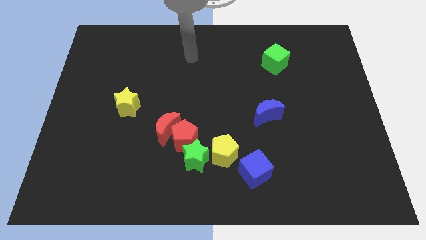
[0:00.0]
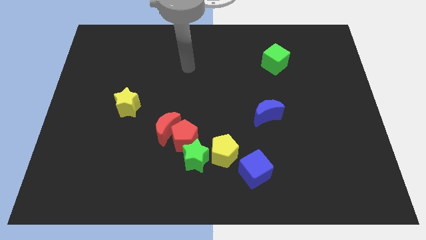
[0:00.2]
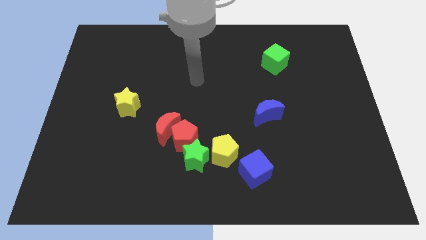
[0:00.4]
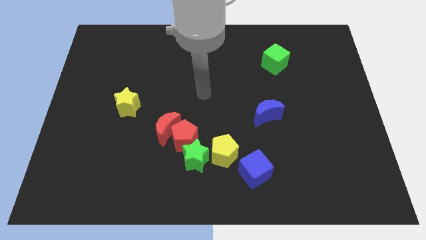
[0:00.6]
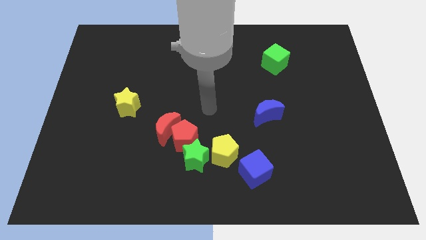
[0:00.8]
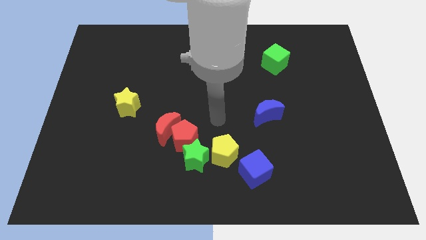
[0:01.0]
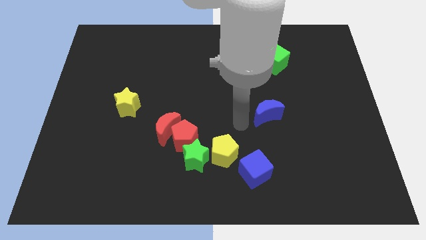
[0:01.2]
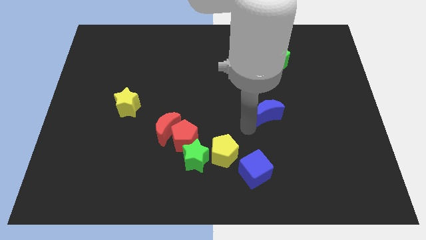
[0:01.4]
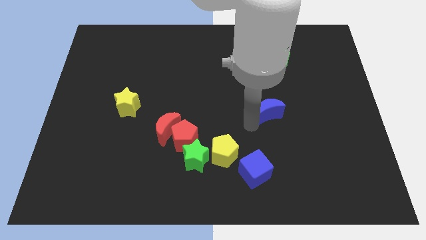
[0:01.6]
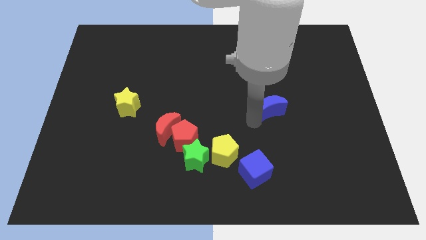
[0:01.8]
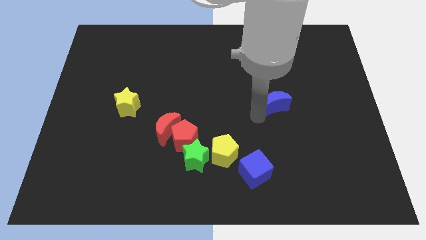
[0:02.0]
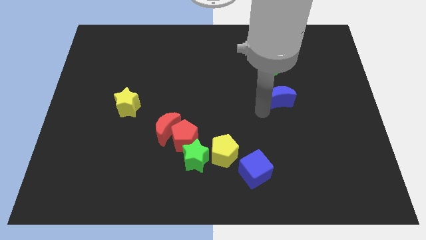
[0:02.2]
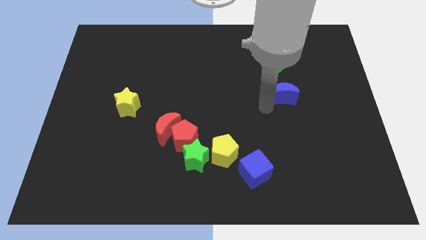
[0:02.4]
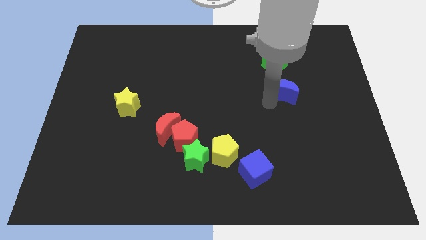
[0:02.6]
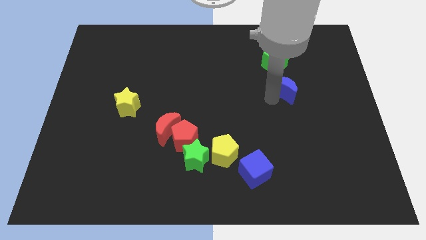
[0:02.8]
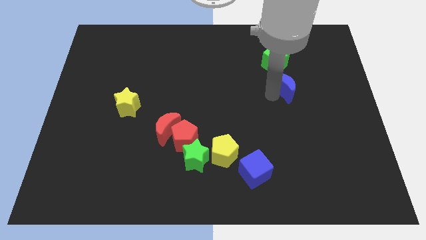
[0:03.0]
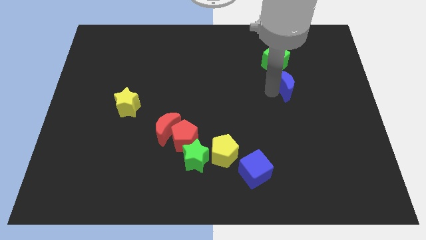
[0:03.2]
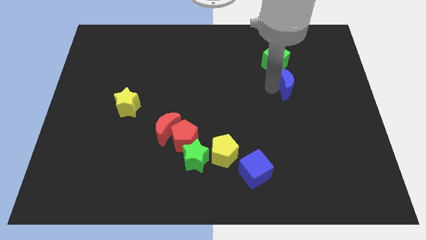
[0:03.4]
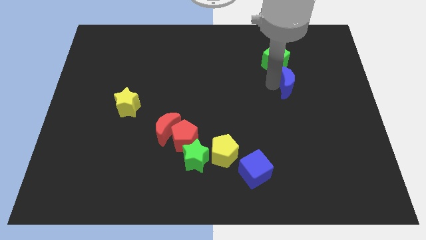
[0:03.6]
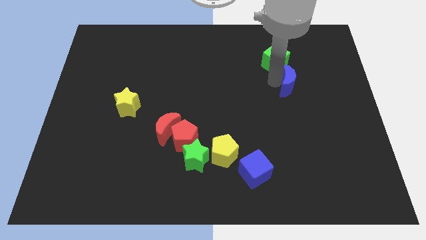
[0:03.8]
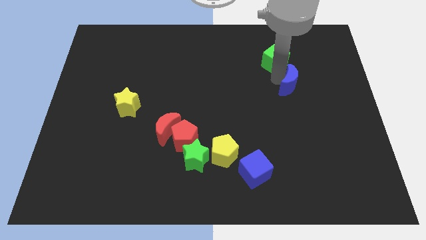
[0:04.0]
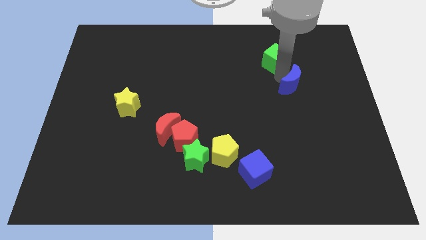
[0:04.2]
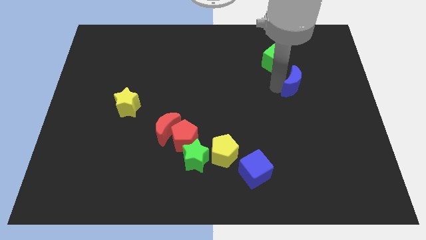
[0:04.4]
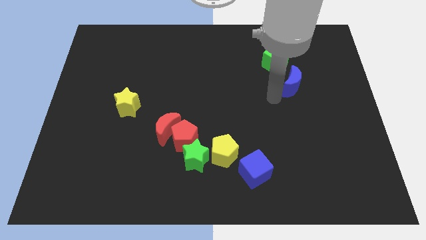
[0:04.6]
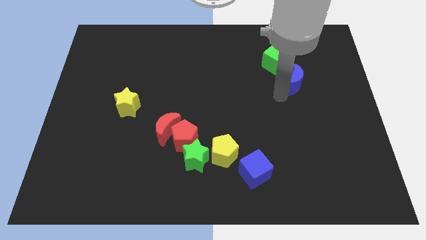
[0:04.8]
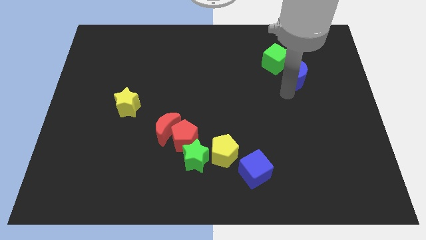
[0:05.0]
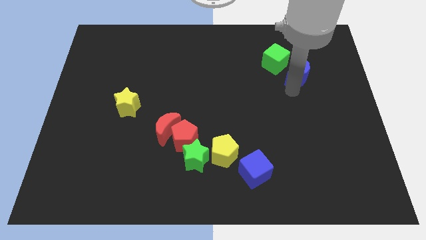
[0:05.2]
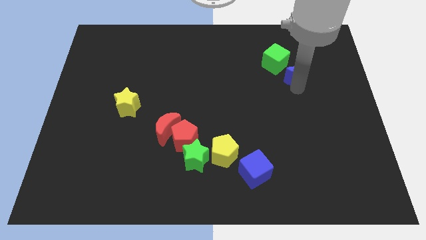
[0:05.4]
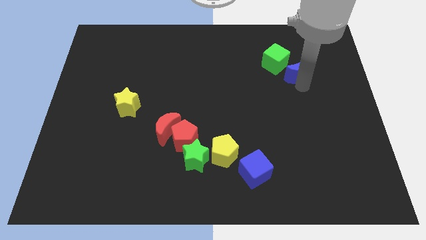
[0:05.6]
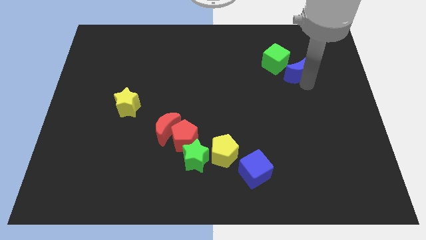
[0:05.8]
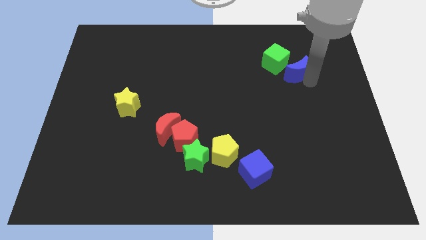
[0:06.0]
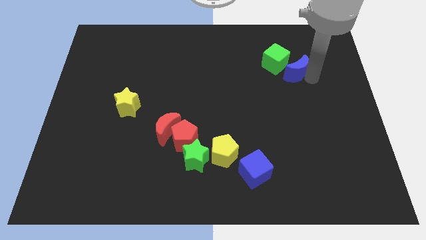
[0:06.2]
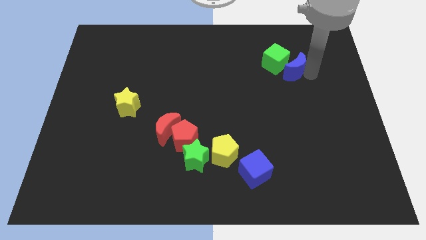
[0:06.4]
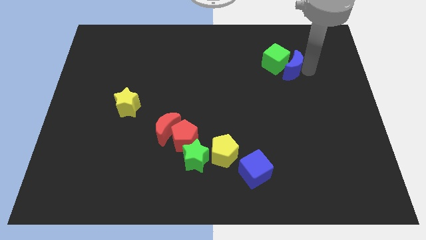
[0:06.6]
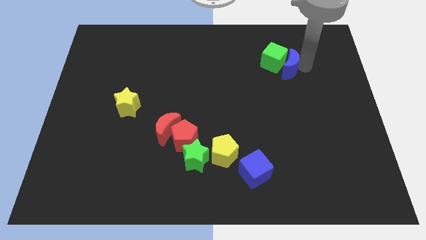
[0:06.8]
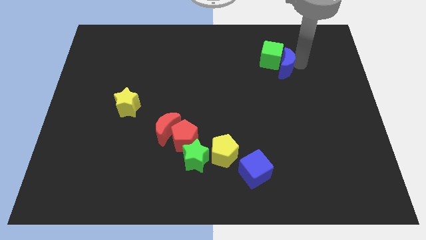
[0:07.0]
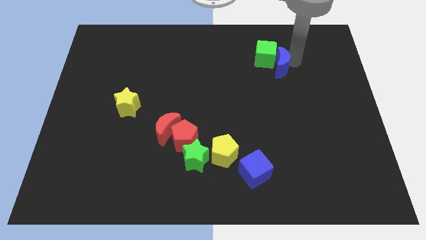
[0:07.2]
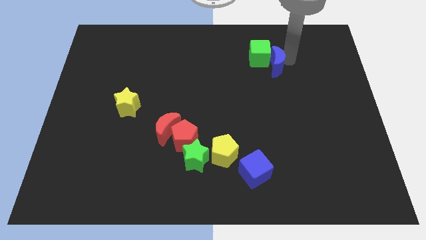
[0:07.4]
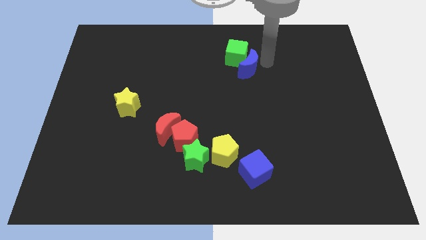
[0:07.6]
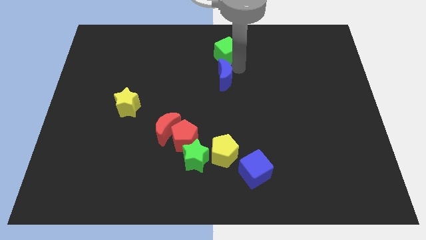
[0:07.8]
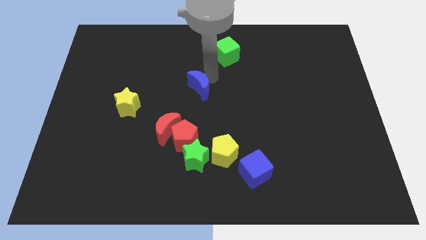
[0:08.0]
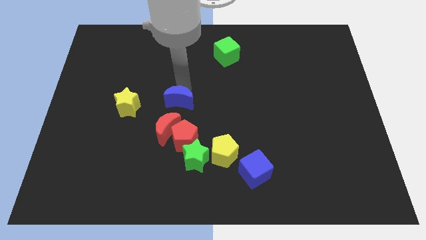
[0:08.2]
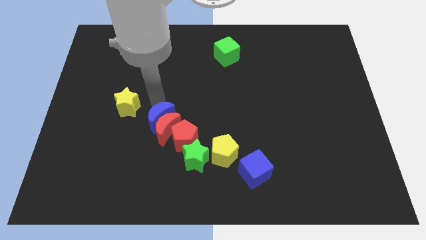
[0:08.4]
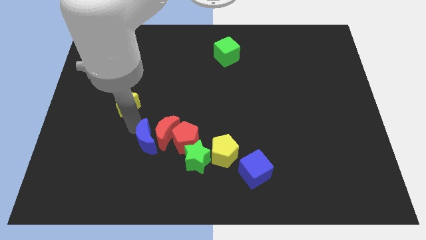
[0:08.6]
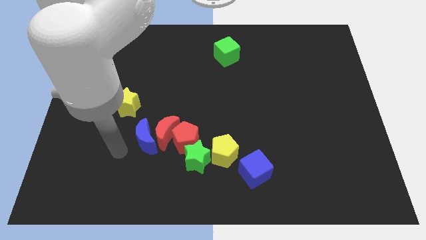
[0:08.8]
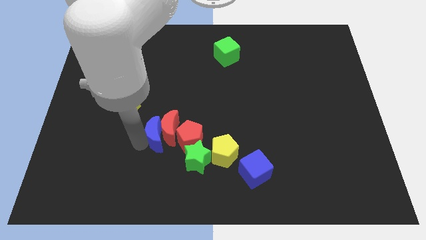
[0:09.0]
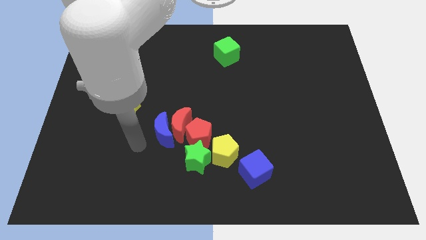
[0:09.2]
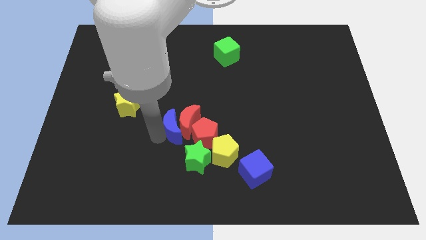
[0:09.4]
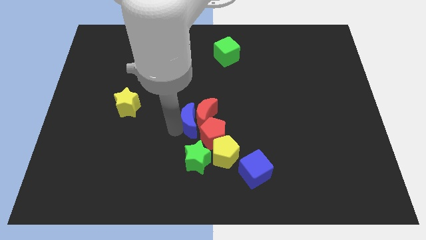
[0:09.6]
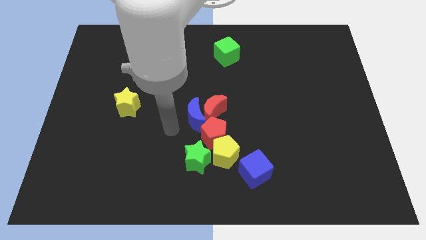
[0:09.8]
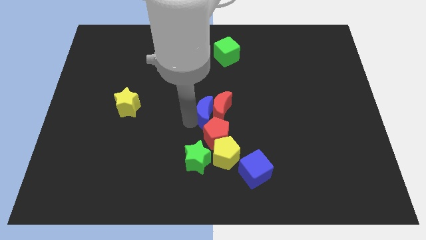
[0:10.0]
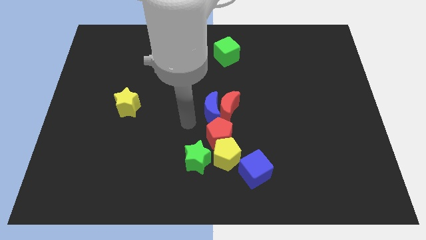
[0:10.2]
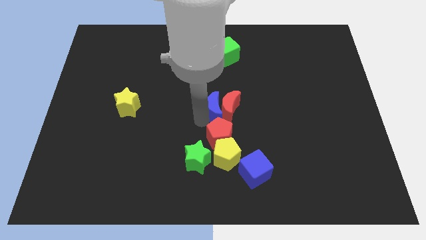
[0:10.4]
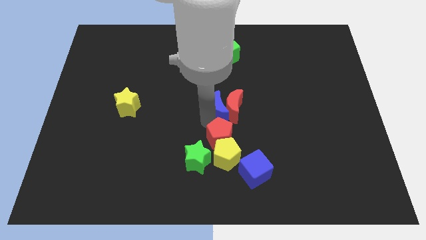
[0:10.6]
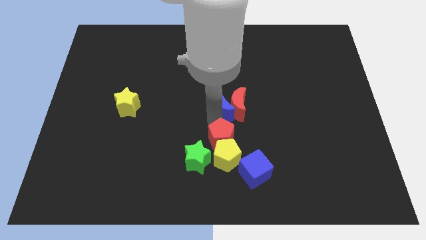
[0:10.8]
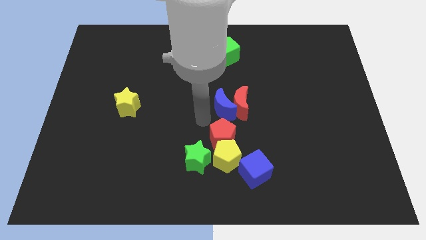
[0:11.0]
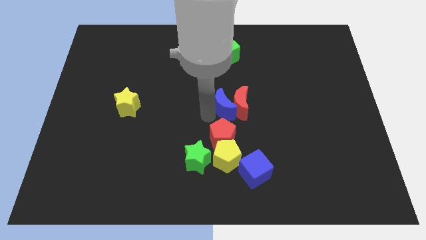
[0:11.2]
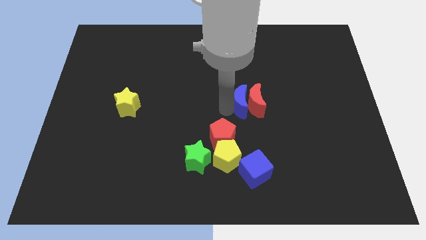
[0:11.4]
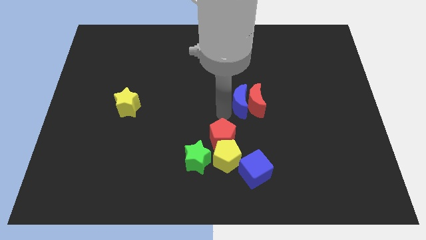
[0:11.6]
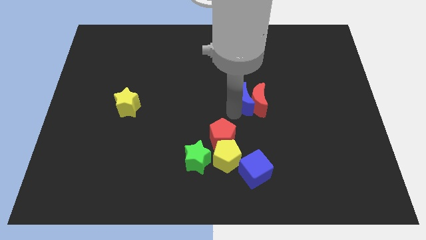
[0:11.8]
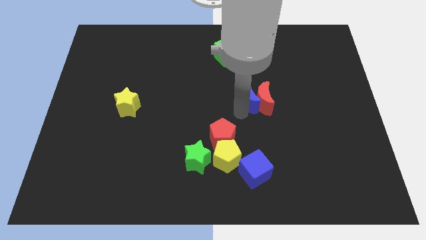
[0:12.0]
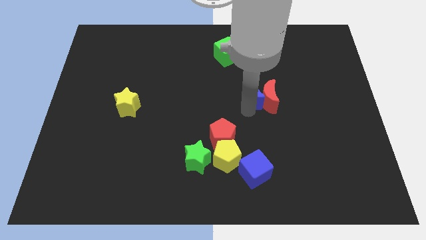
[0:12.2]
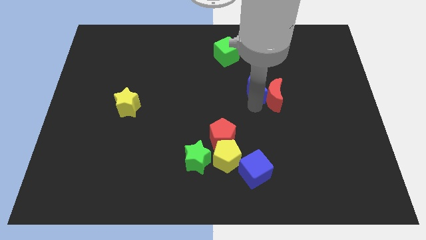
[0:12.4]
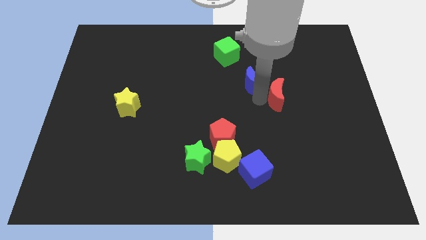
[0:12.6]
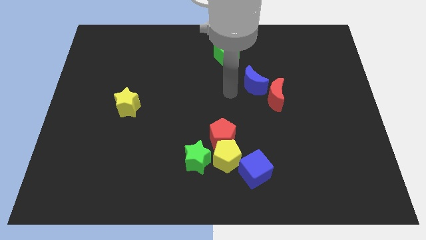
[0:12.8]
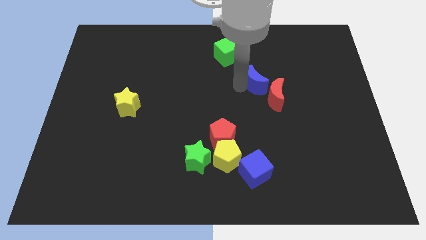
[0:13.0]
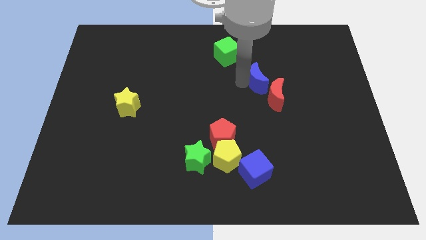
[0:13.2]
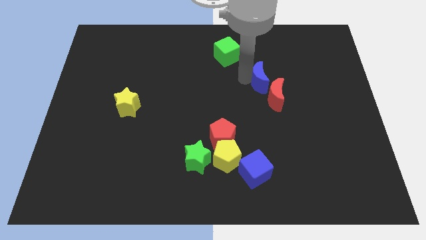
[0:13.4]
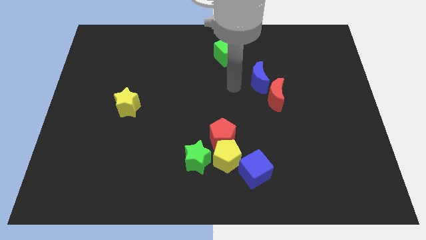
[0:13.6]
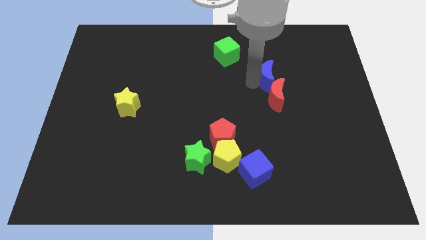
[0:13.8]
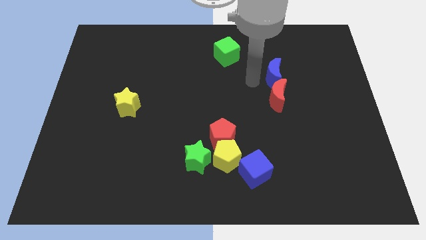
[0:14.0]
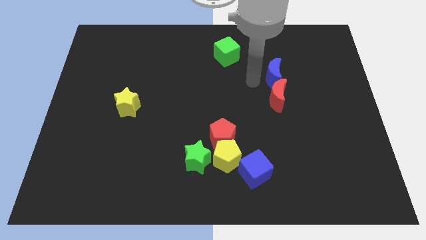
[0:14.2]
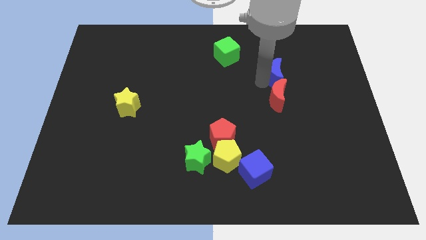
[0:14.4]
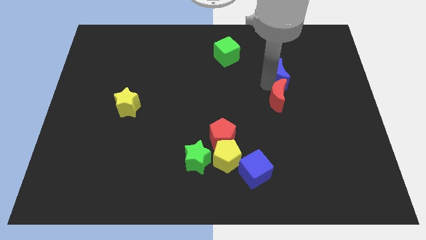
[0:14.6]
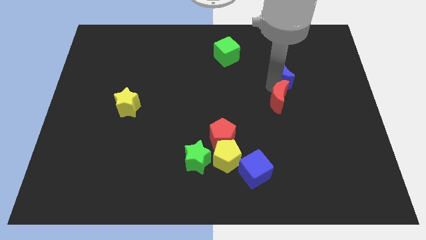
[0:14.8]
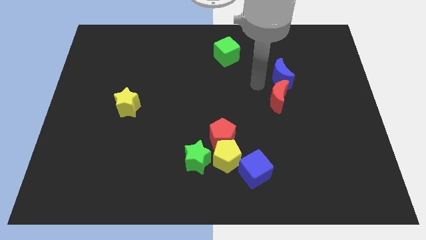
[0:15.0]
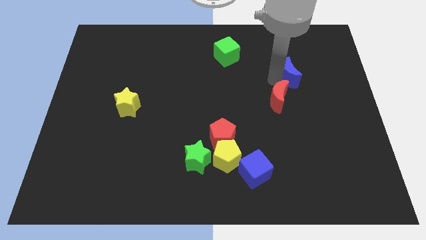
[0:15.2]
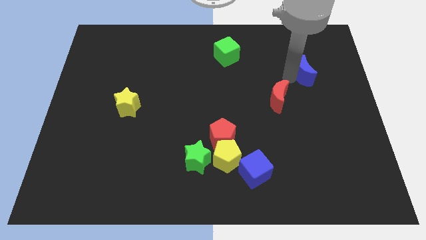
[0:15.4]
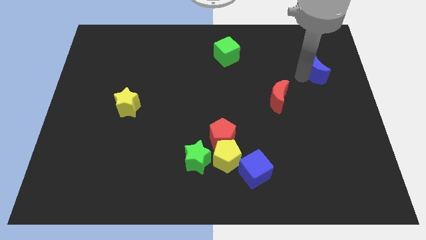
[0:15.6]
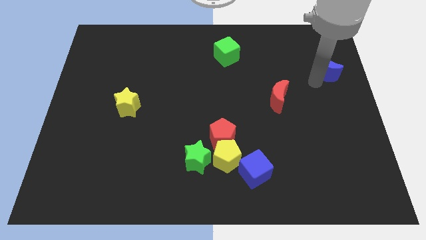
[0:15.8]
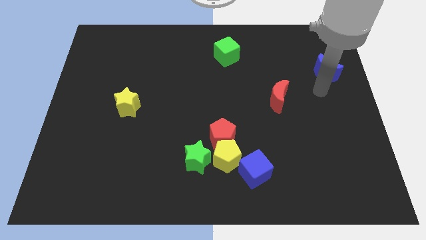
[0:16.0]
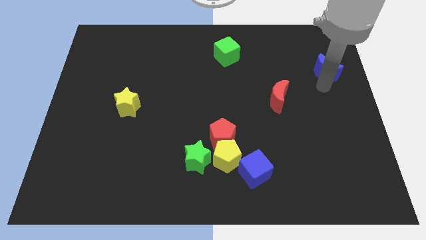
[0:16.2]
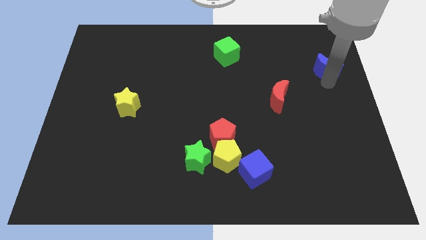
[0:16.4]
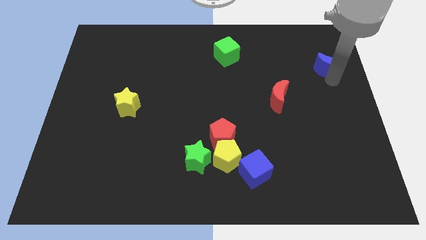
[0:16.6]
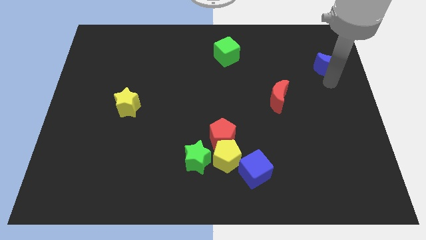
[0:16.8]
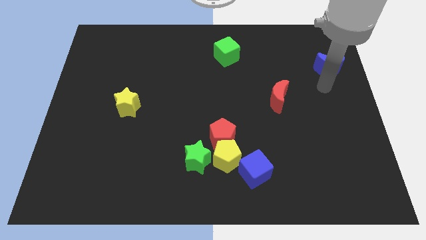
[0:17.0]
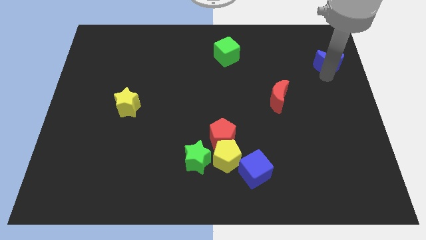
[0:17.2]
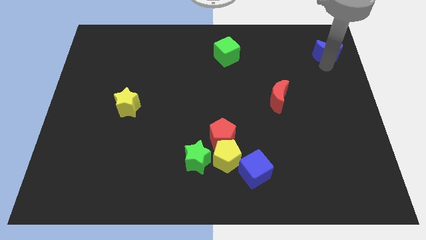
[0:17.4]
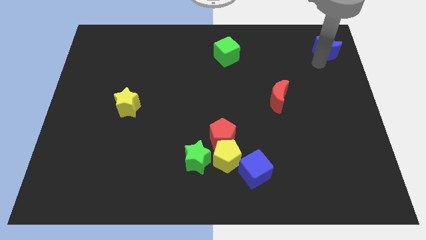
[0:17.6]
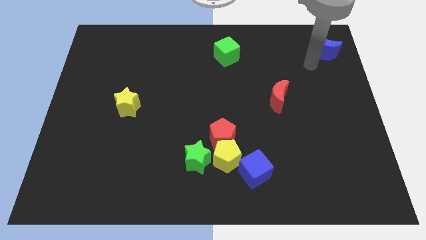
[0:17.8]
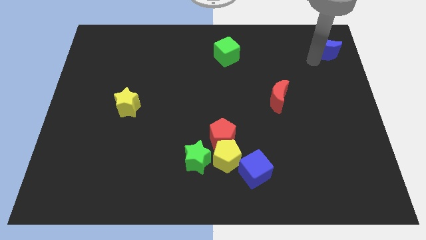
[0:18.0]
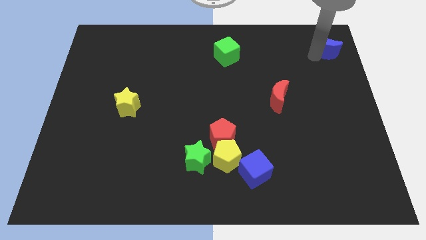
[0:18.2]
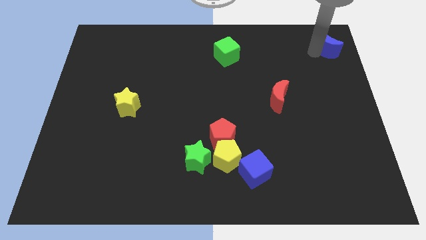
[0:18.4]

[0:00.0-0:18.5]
slide the blue moon to the upper right corner
